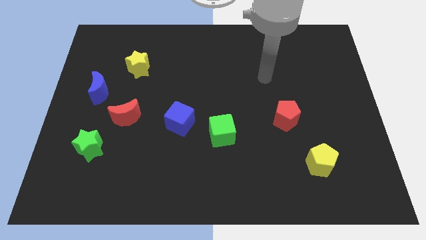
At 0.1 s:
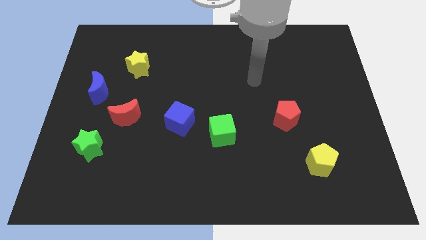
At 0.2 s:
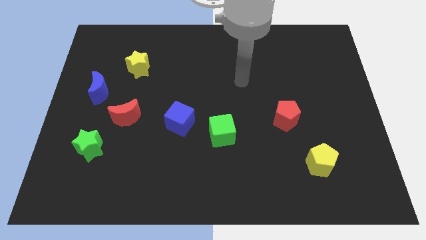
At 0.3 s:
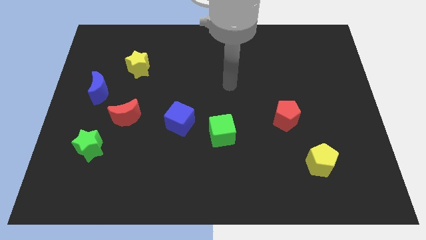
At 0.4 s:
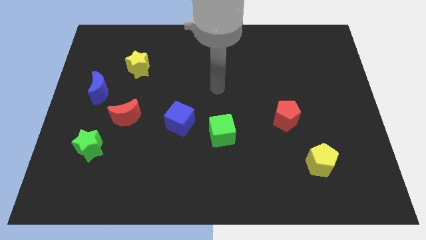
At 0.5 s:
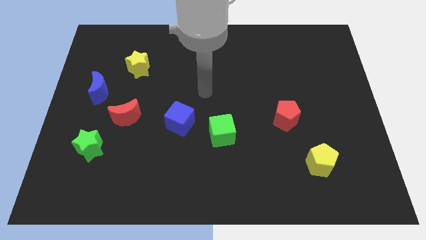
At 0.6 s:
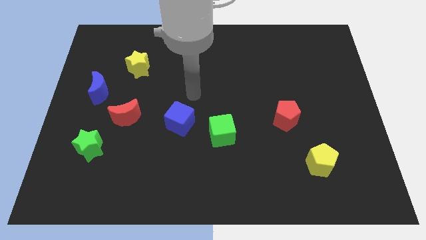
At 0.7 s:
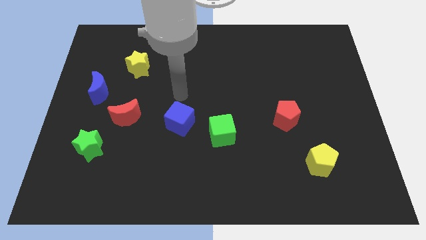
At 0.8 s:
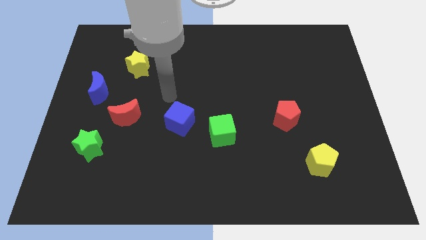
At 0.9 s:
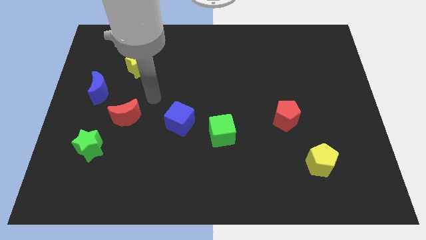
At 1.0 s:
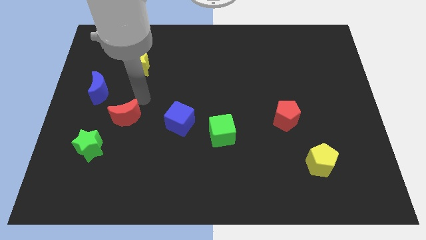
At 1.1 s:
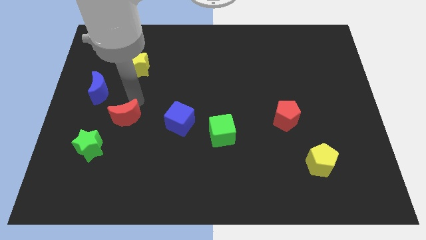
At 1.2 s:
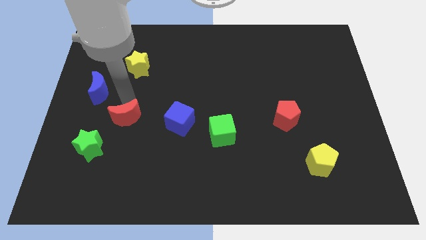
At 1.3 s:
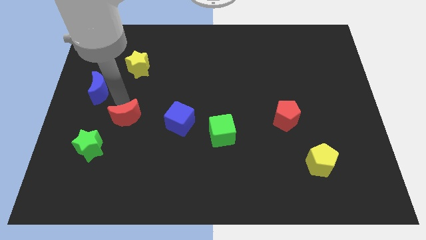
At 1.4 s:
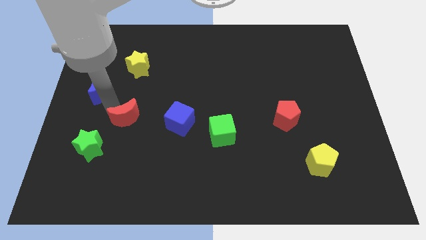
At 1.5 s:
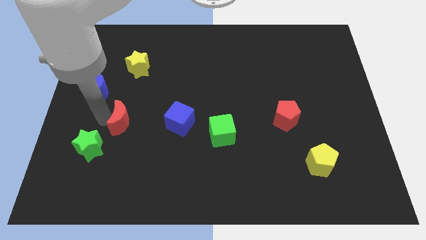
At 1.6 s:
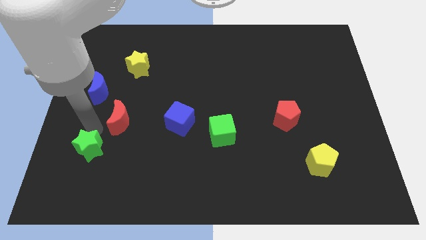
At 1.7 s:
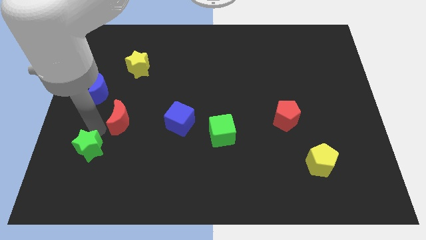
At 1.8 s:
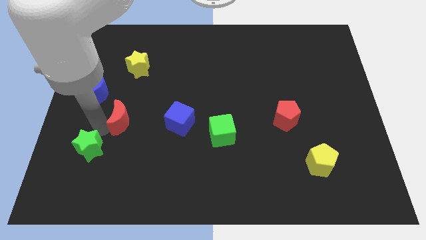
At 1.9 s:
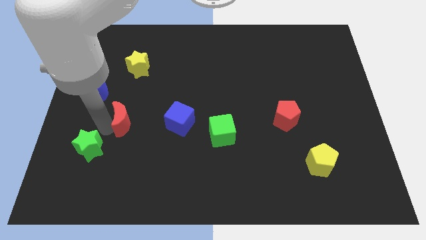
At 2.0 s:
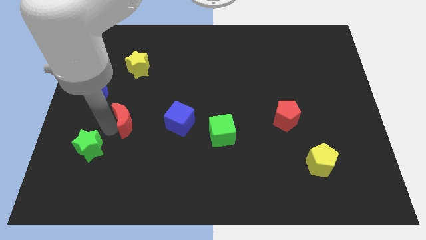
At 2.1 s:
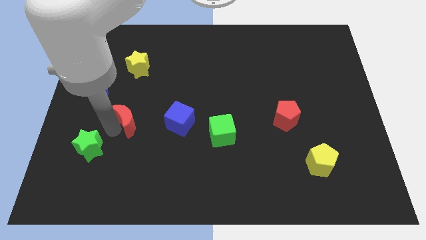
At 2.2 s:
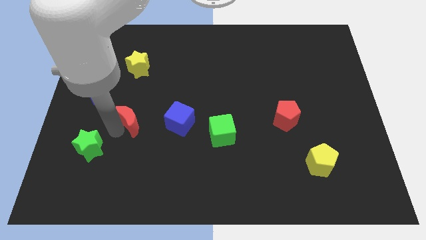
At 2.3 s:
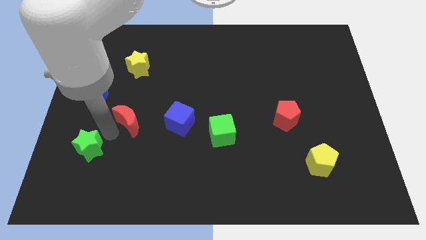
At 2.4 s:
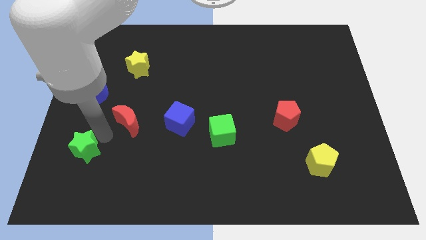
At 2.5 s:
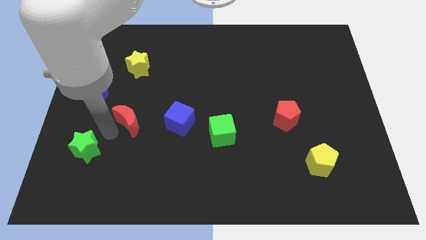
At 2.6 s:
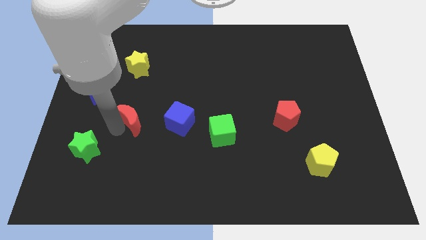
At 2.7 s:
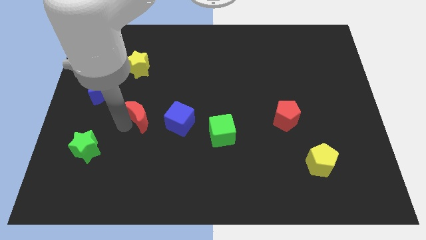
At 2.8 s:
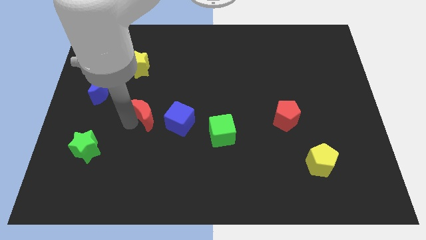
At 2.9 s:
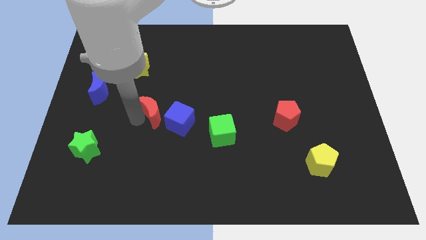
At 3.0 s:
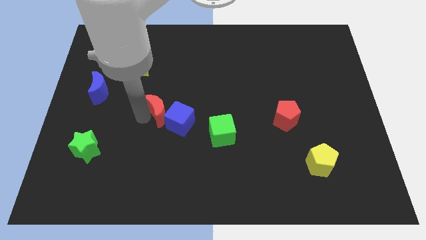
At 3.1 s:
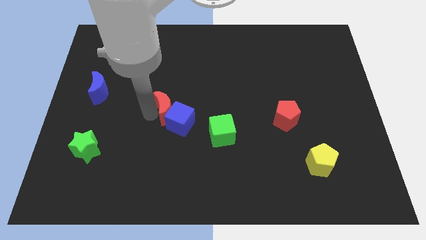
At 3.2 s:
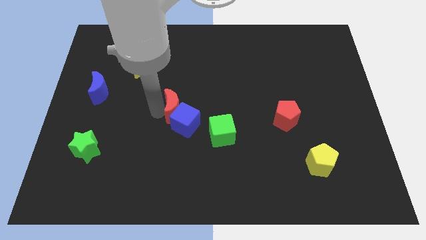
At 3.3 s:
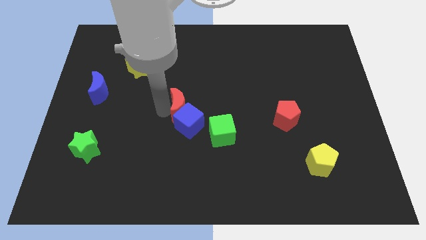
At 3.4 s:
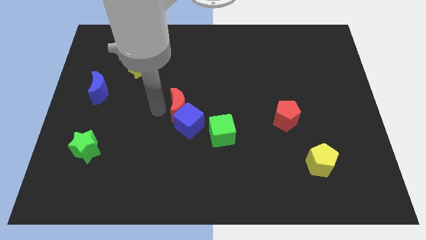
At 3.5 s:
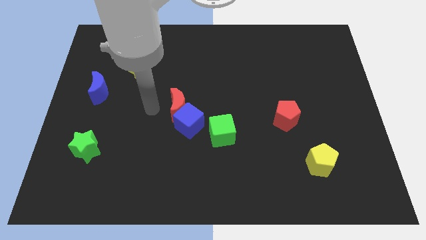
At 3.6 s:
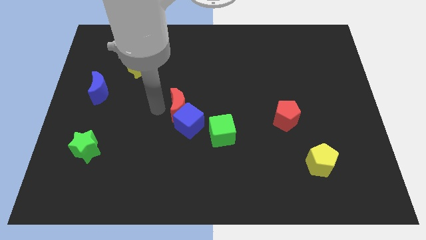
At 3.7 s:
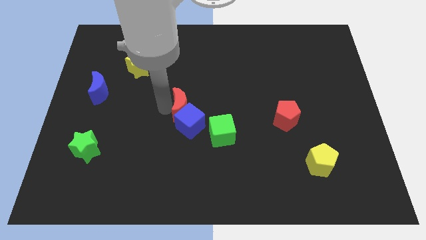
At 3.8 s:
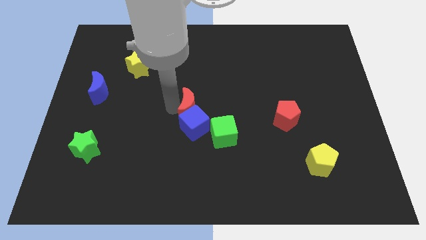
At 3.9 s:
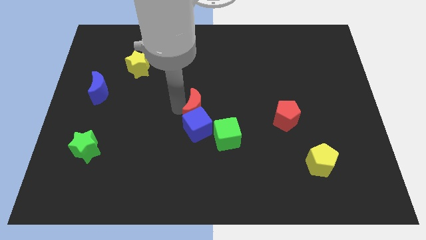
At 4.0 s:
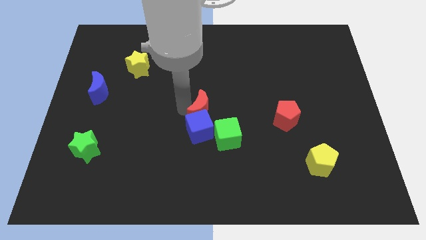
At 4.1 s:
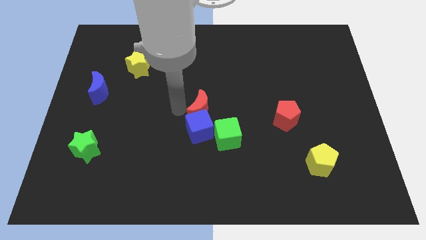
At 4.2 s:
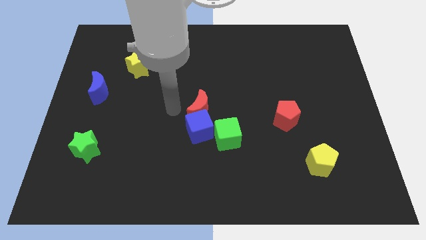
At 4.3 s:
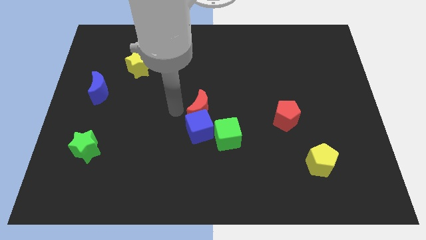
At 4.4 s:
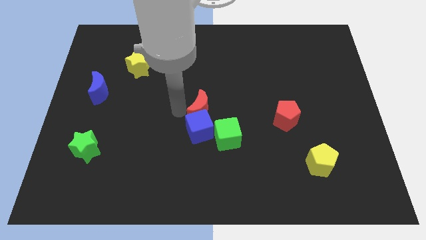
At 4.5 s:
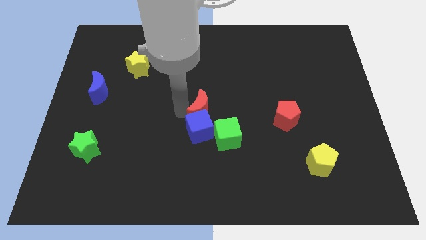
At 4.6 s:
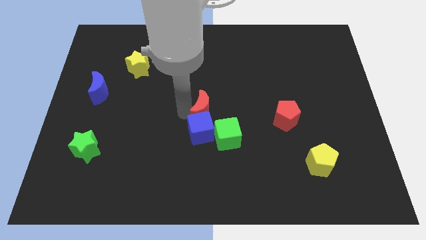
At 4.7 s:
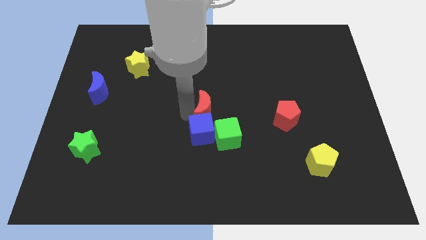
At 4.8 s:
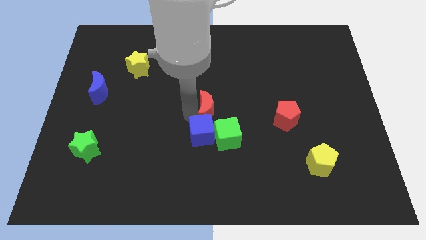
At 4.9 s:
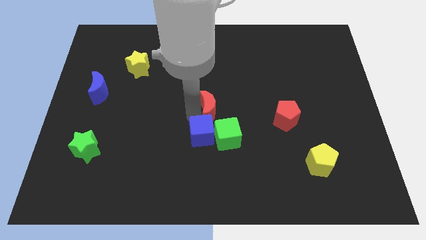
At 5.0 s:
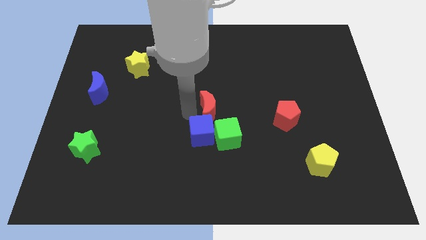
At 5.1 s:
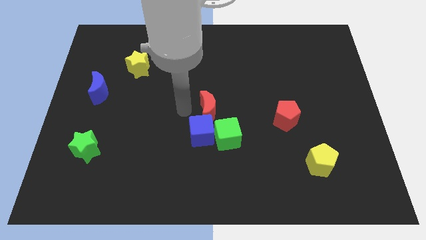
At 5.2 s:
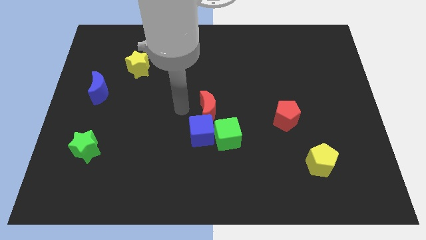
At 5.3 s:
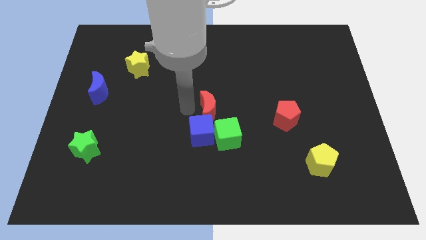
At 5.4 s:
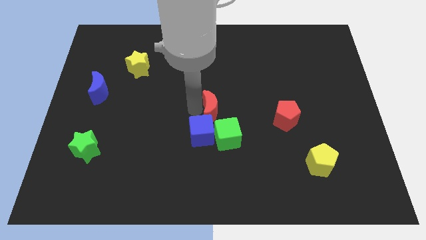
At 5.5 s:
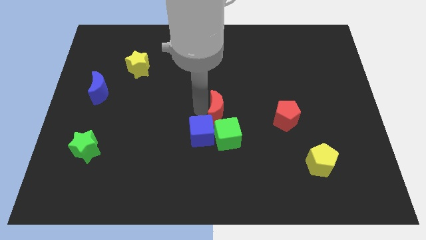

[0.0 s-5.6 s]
slide the red moon right

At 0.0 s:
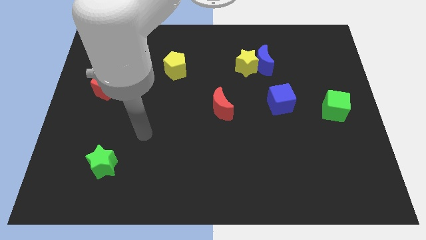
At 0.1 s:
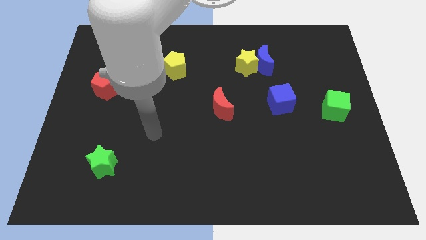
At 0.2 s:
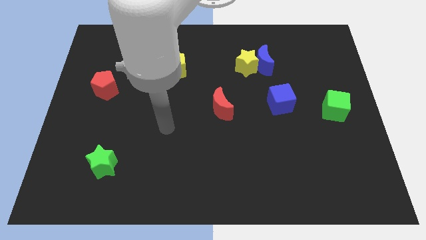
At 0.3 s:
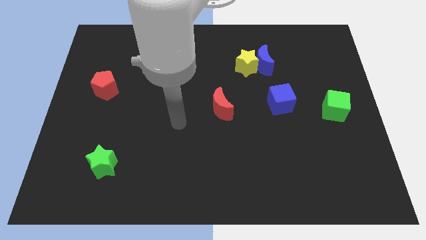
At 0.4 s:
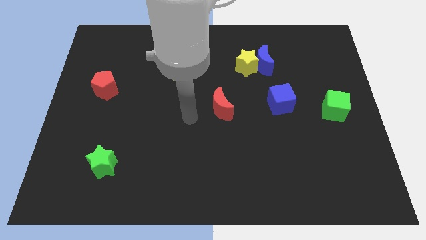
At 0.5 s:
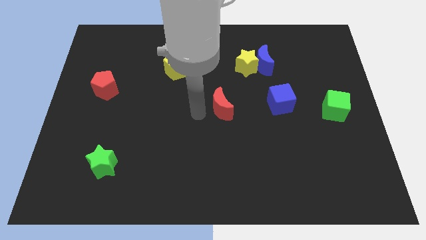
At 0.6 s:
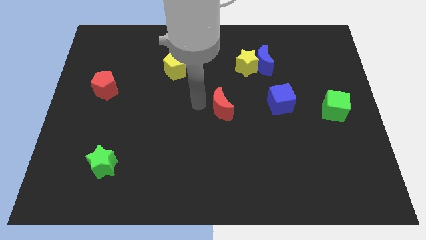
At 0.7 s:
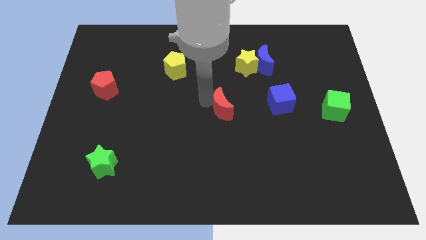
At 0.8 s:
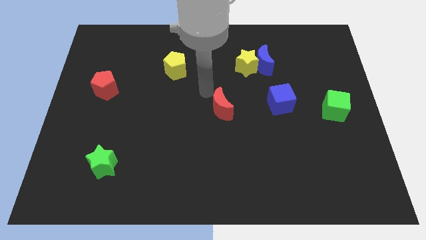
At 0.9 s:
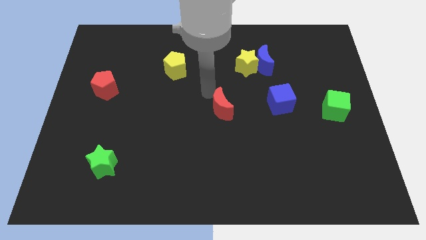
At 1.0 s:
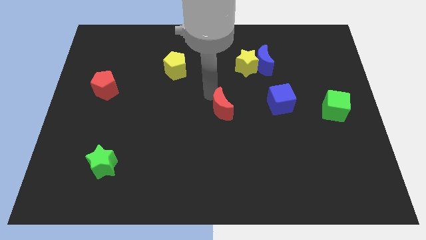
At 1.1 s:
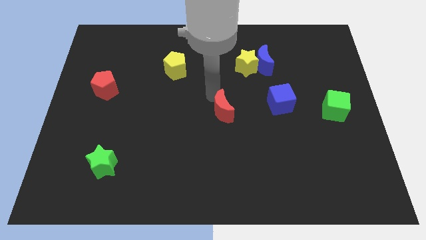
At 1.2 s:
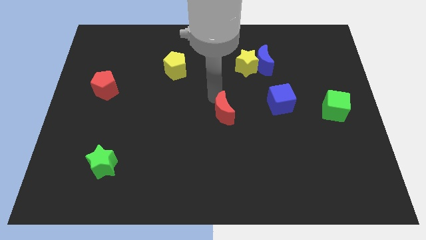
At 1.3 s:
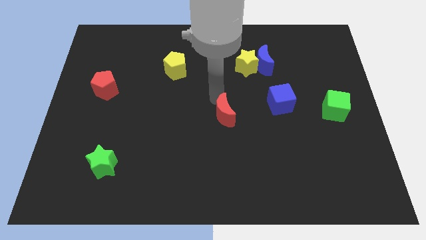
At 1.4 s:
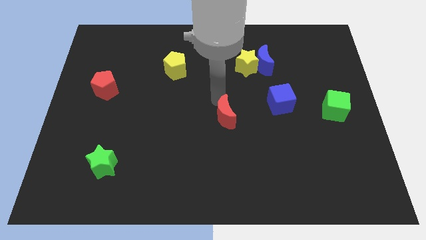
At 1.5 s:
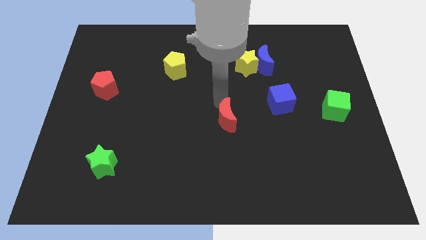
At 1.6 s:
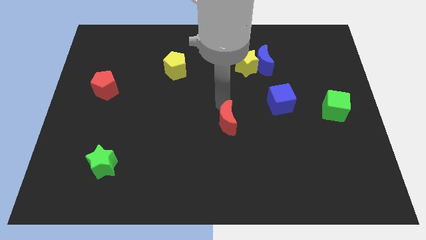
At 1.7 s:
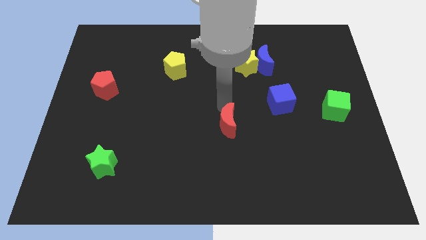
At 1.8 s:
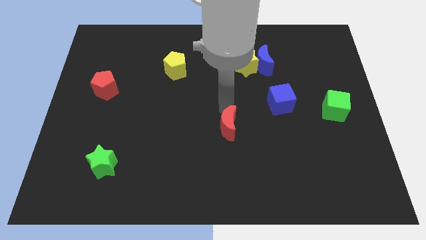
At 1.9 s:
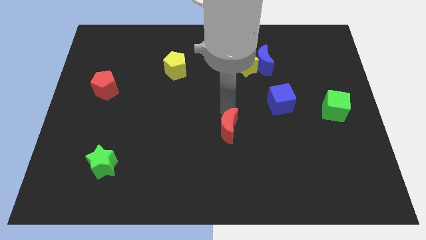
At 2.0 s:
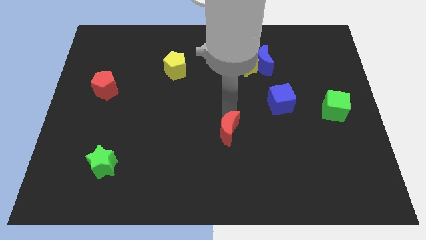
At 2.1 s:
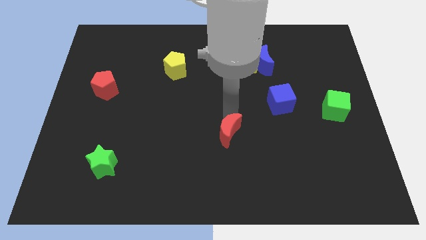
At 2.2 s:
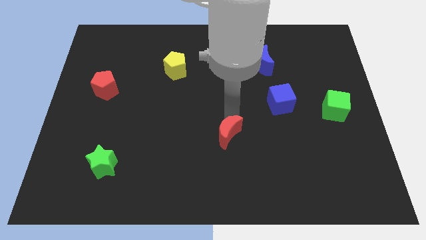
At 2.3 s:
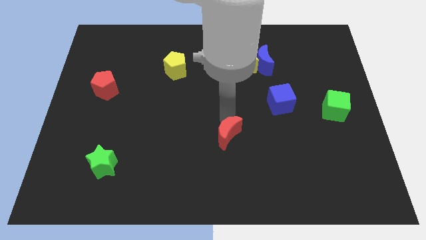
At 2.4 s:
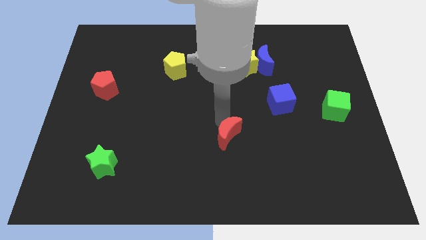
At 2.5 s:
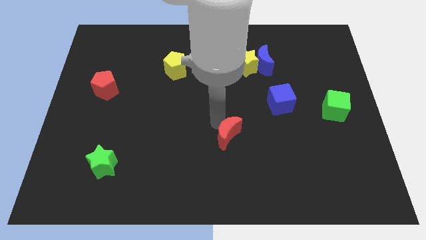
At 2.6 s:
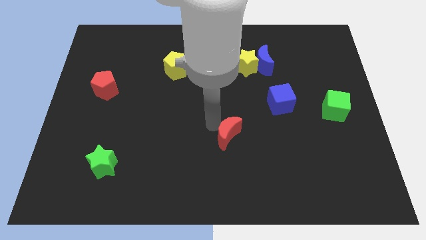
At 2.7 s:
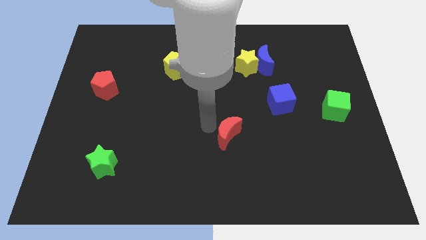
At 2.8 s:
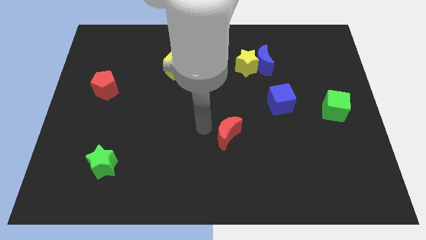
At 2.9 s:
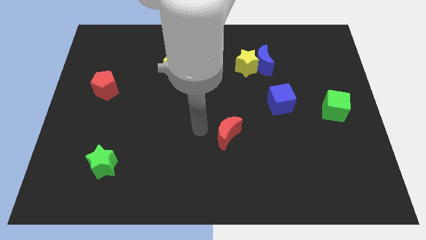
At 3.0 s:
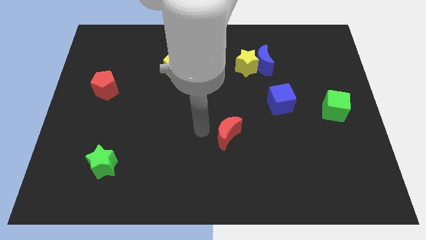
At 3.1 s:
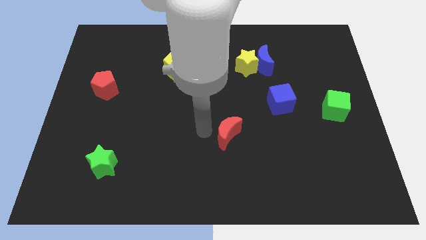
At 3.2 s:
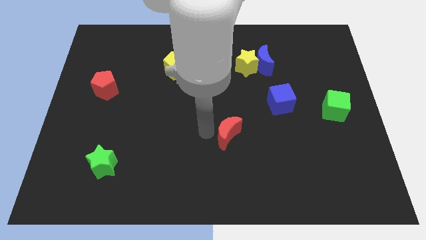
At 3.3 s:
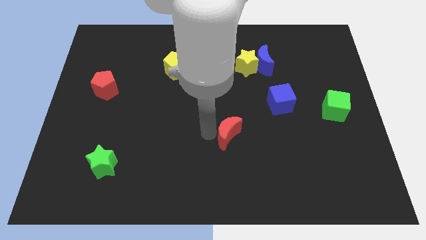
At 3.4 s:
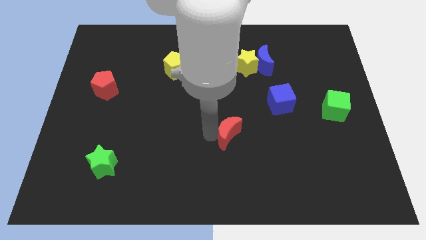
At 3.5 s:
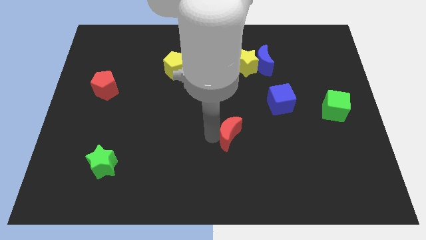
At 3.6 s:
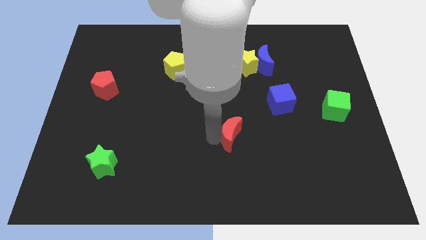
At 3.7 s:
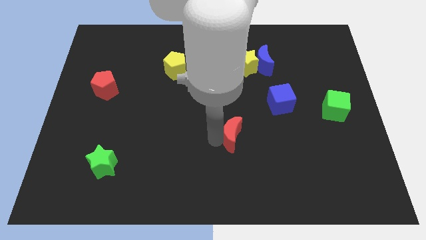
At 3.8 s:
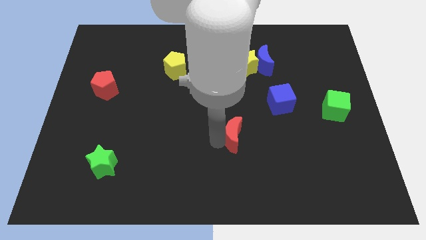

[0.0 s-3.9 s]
move the red moon downwards and to the right slightly
